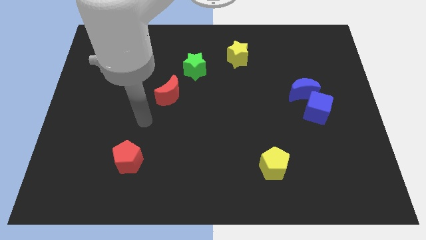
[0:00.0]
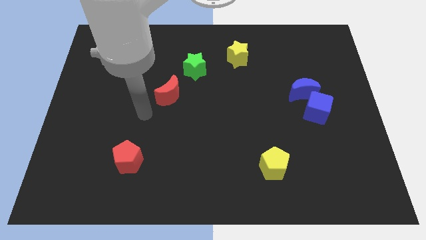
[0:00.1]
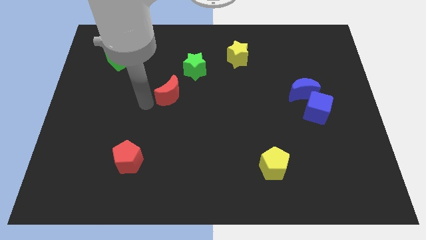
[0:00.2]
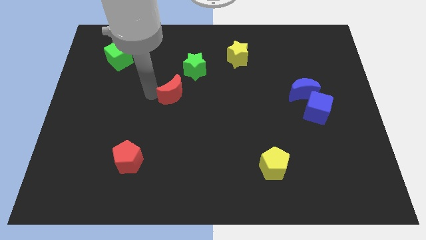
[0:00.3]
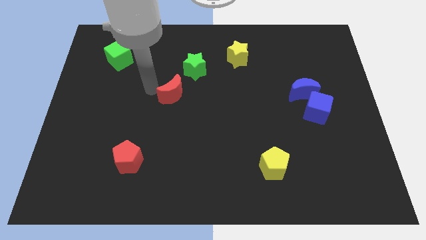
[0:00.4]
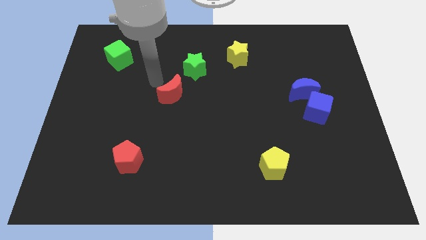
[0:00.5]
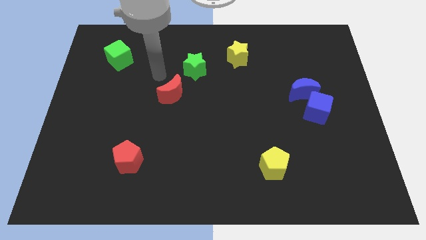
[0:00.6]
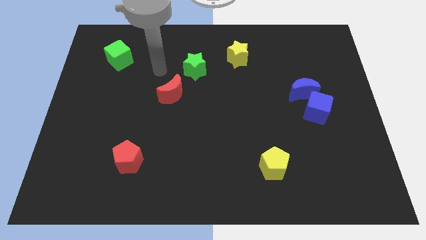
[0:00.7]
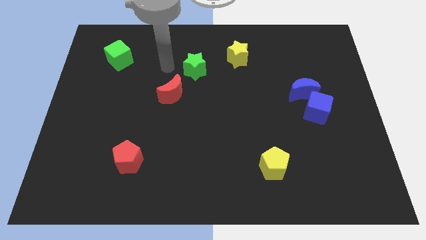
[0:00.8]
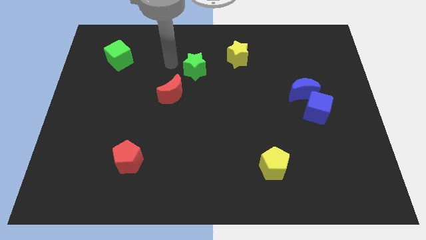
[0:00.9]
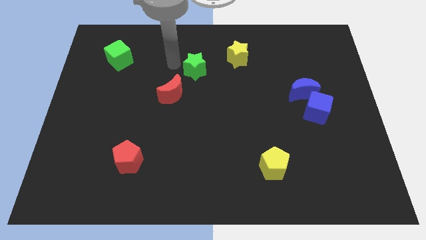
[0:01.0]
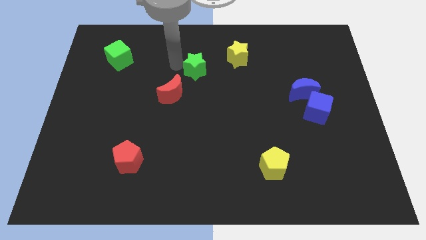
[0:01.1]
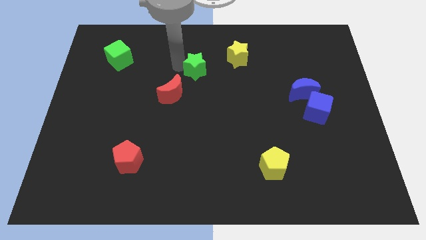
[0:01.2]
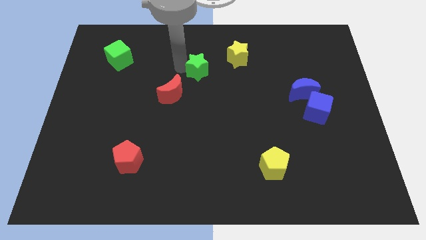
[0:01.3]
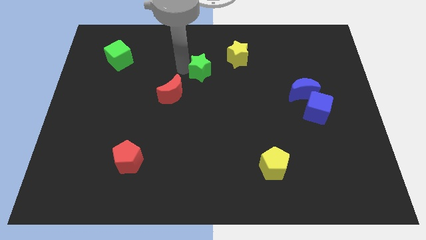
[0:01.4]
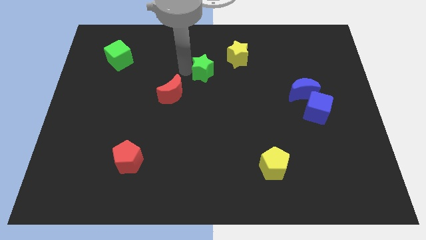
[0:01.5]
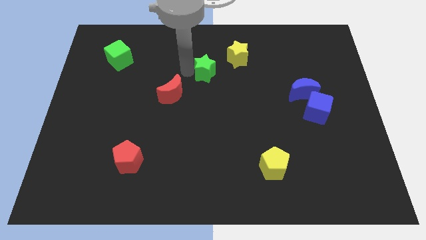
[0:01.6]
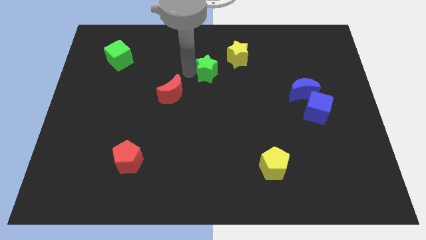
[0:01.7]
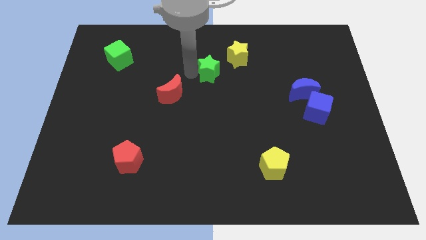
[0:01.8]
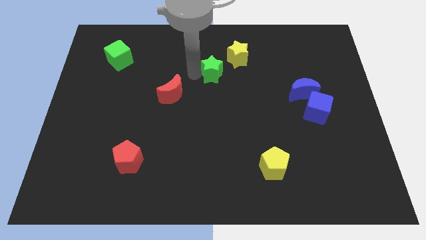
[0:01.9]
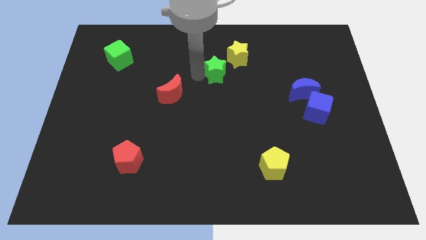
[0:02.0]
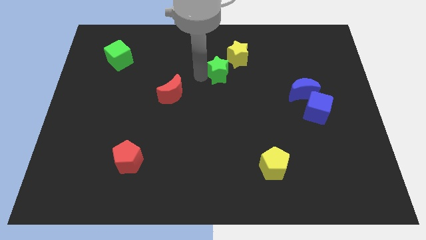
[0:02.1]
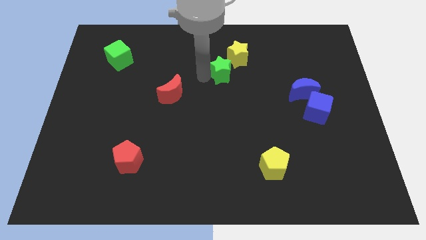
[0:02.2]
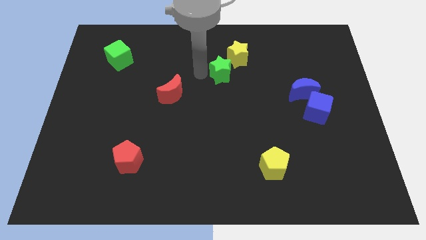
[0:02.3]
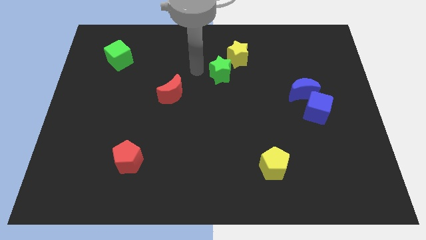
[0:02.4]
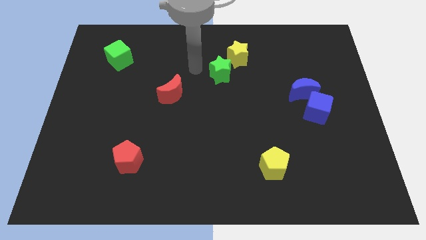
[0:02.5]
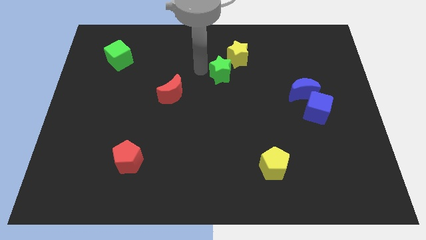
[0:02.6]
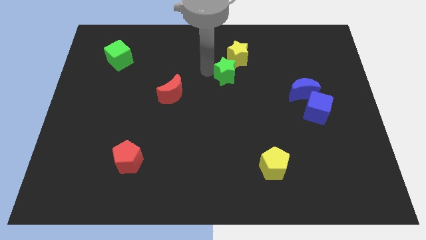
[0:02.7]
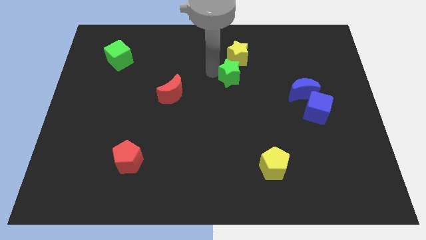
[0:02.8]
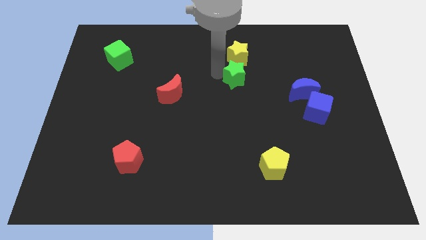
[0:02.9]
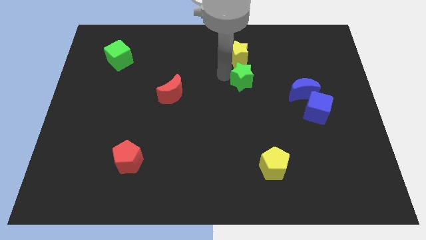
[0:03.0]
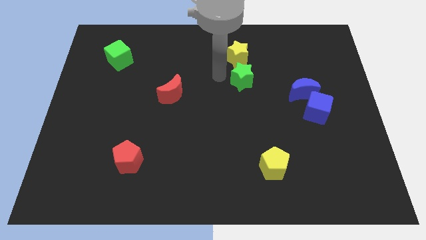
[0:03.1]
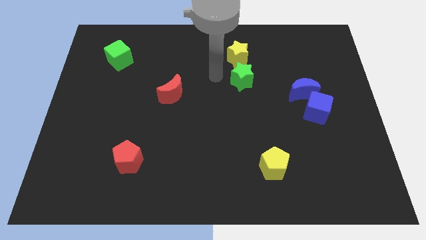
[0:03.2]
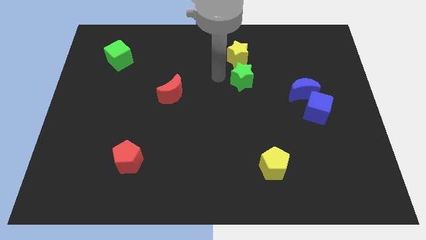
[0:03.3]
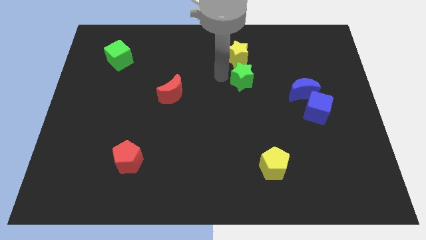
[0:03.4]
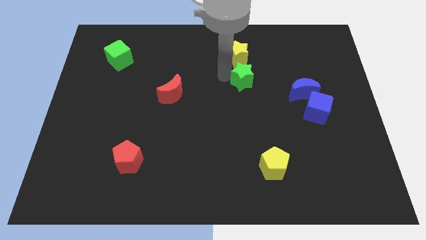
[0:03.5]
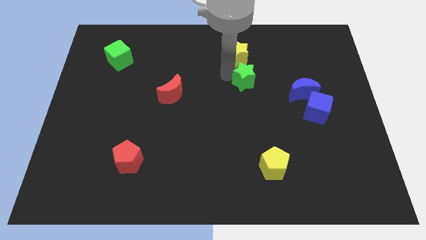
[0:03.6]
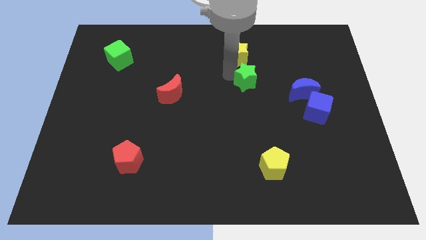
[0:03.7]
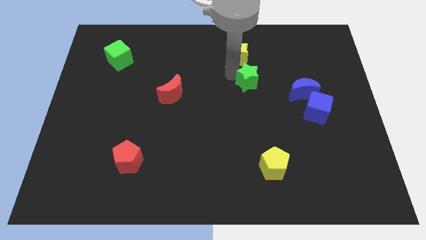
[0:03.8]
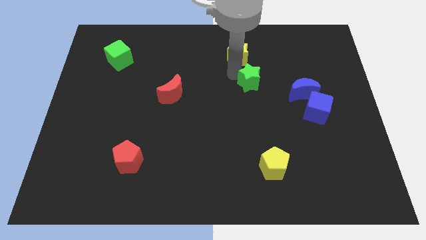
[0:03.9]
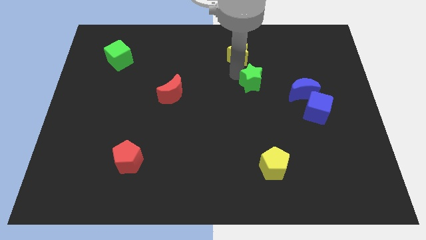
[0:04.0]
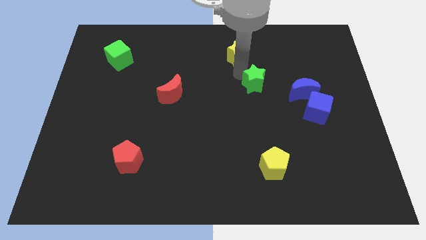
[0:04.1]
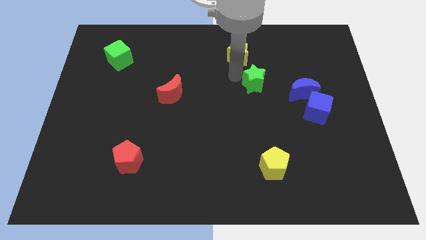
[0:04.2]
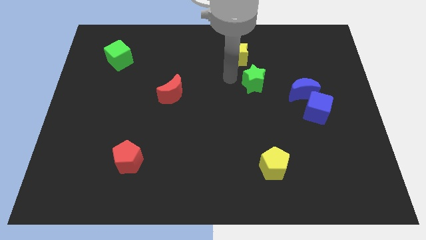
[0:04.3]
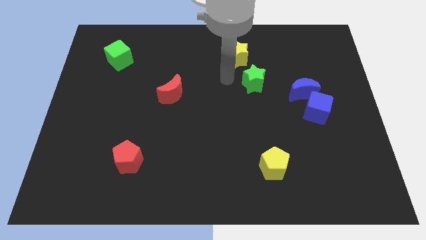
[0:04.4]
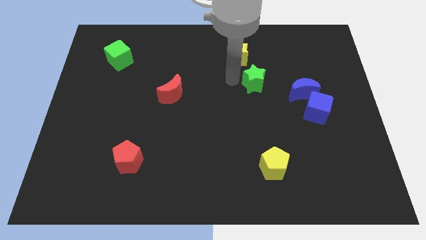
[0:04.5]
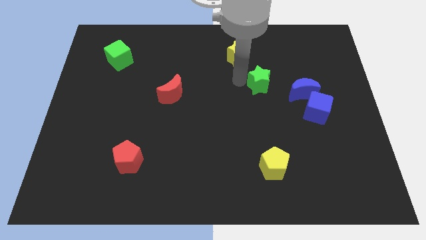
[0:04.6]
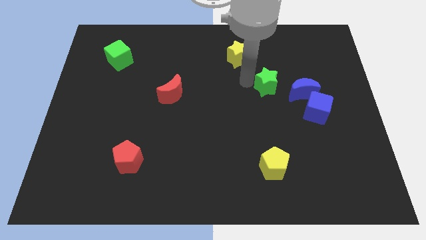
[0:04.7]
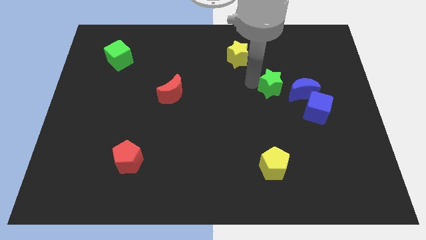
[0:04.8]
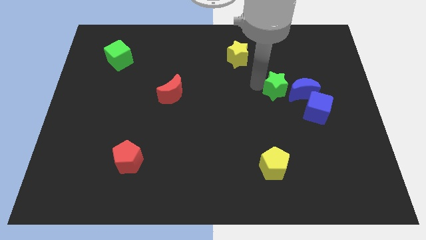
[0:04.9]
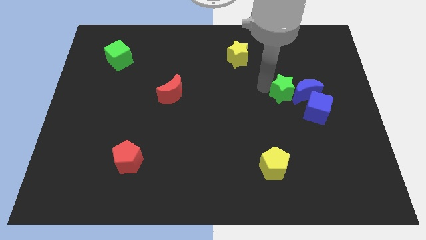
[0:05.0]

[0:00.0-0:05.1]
push the green star towards the blue moon

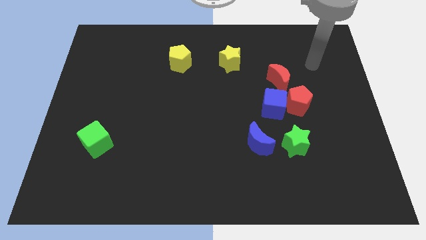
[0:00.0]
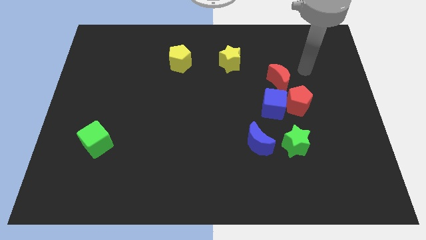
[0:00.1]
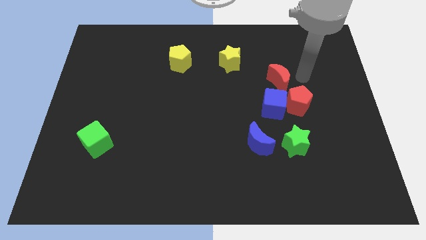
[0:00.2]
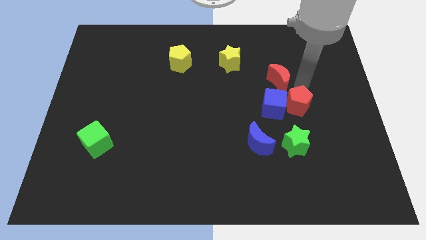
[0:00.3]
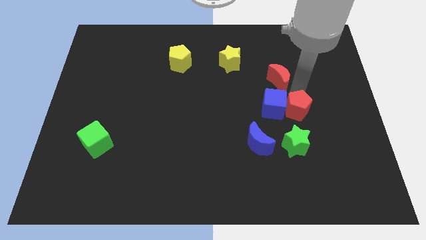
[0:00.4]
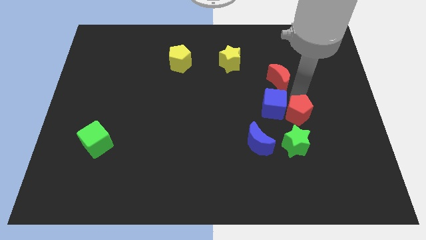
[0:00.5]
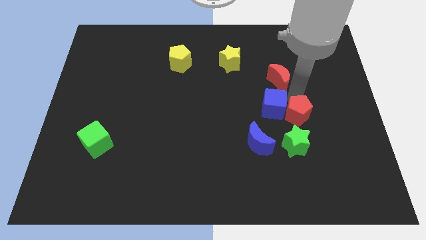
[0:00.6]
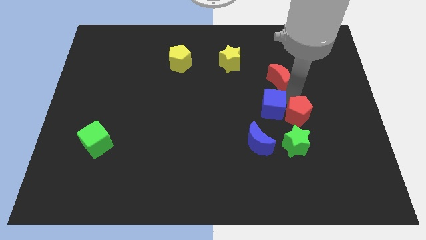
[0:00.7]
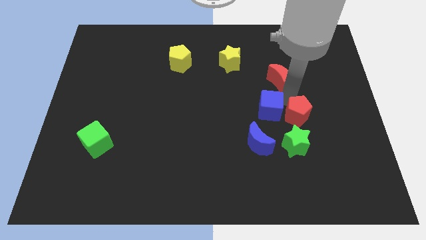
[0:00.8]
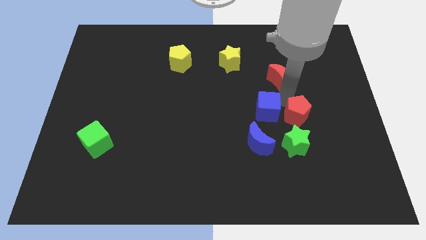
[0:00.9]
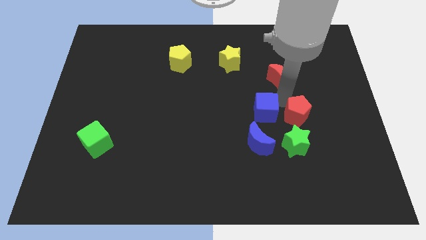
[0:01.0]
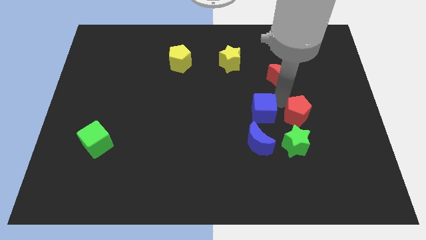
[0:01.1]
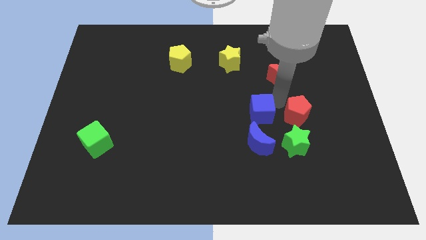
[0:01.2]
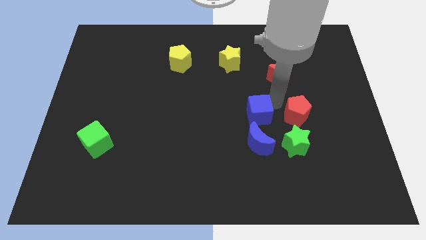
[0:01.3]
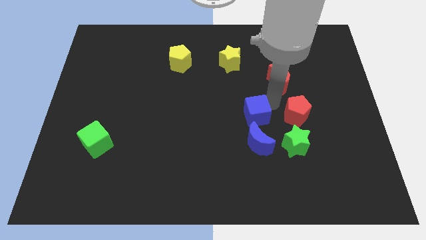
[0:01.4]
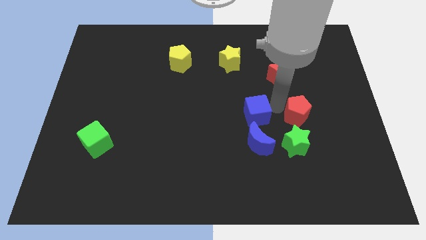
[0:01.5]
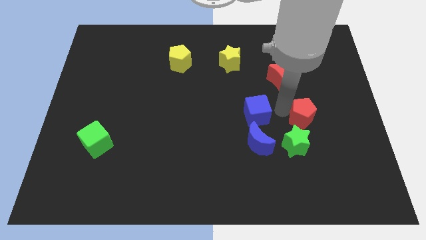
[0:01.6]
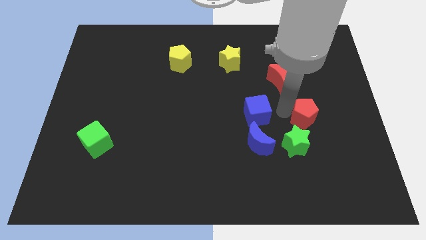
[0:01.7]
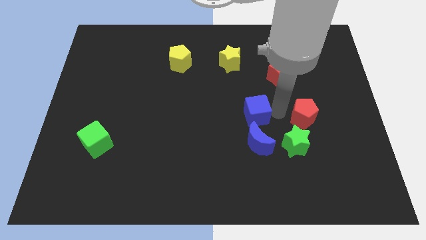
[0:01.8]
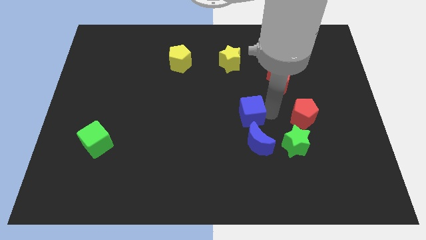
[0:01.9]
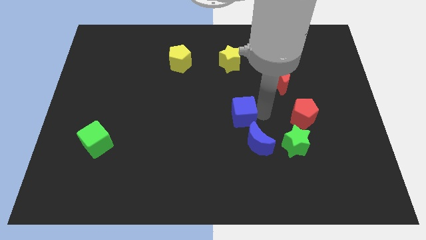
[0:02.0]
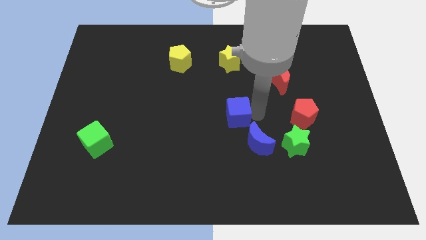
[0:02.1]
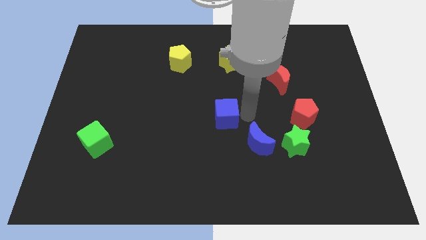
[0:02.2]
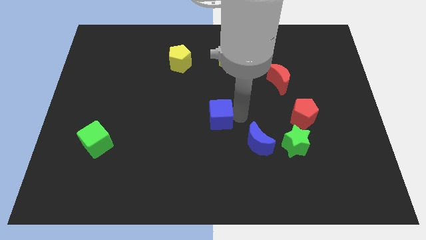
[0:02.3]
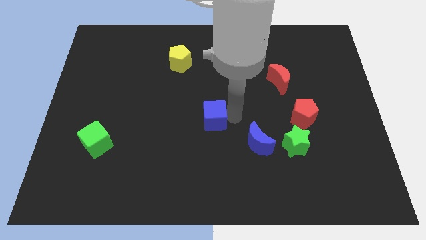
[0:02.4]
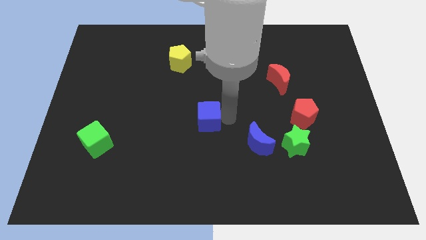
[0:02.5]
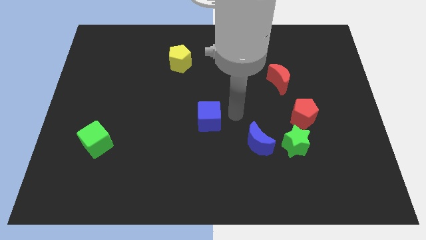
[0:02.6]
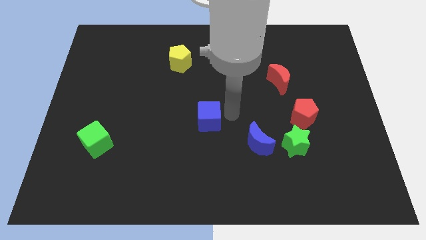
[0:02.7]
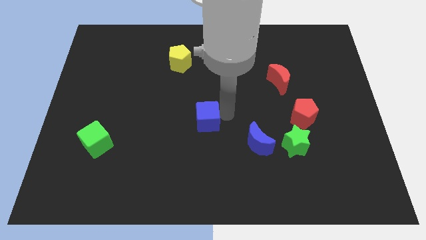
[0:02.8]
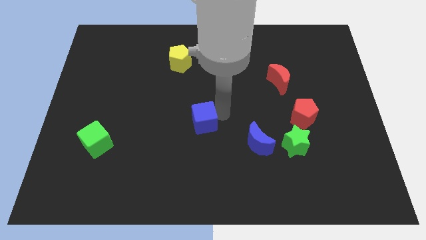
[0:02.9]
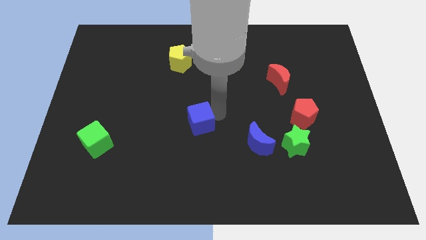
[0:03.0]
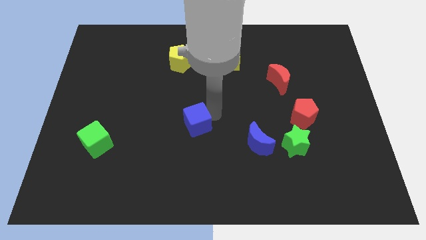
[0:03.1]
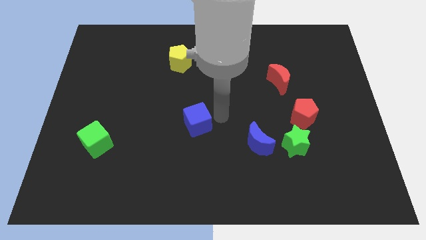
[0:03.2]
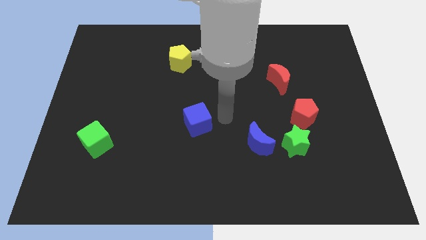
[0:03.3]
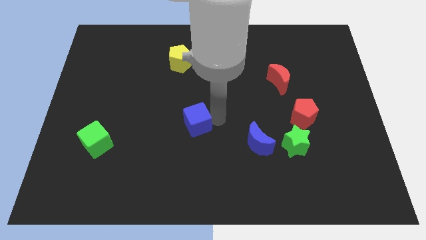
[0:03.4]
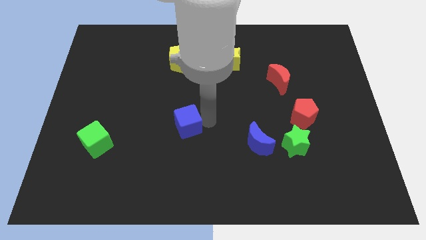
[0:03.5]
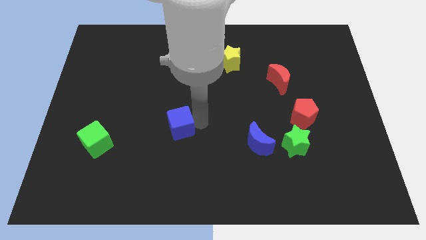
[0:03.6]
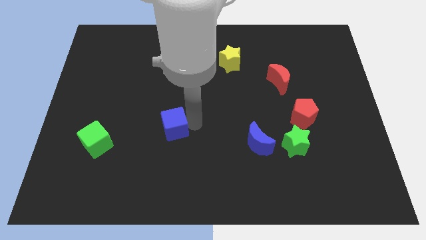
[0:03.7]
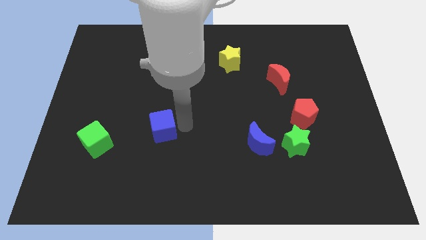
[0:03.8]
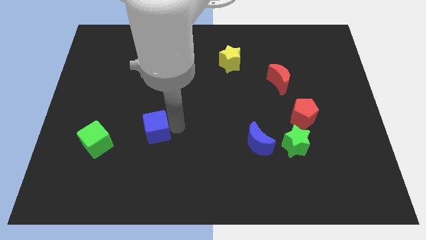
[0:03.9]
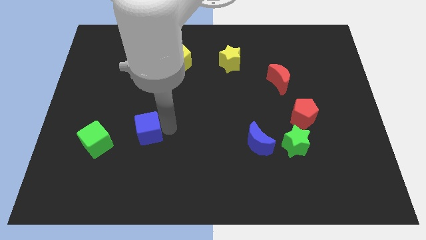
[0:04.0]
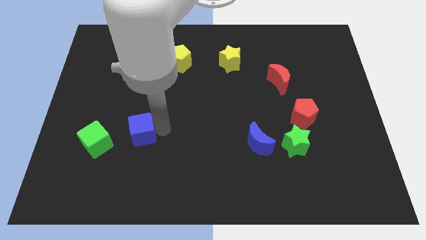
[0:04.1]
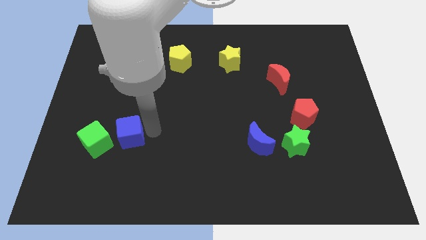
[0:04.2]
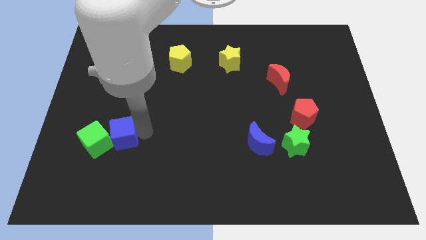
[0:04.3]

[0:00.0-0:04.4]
put the blue cube close to the green cube
